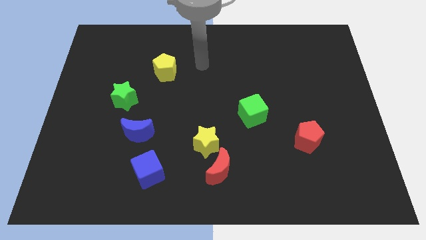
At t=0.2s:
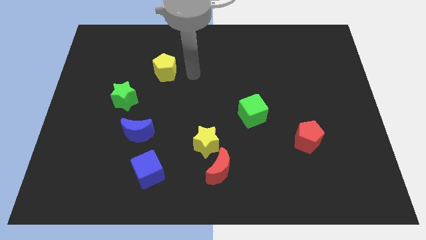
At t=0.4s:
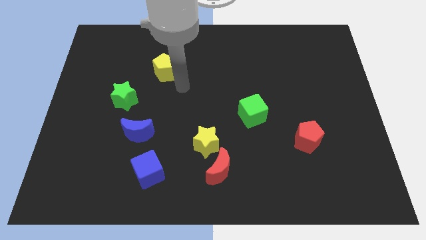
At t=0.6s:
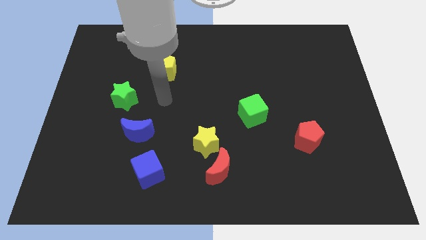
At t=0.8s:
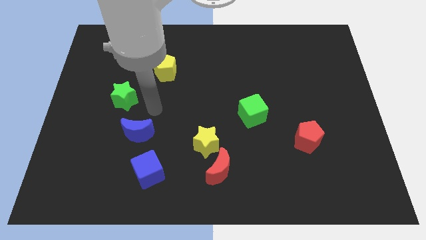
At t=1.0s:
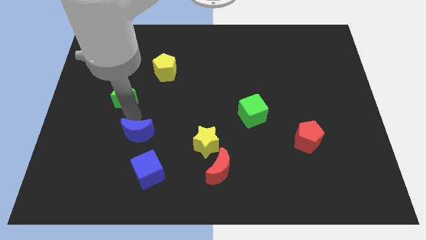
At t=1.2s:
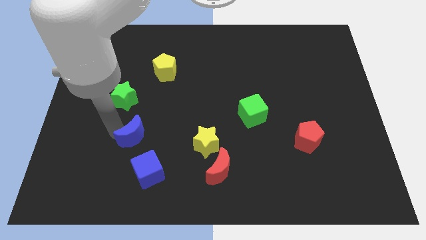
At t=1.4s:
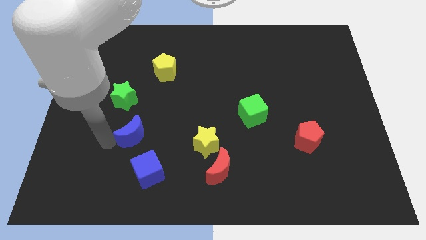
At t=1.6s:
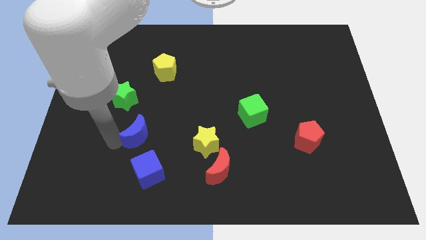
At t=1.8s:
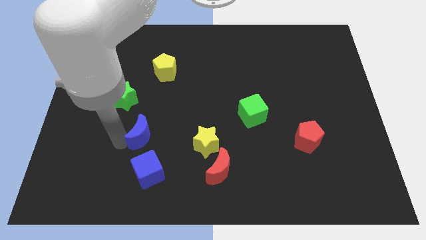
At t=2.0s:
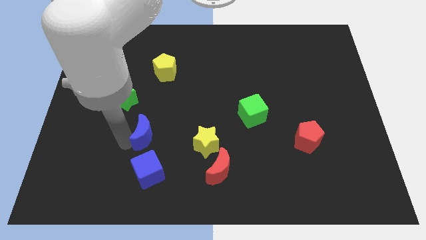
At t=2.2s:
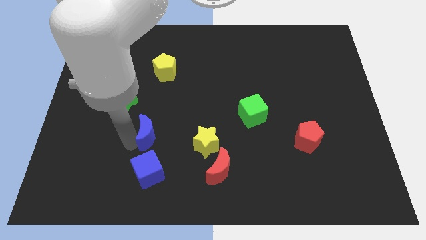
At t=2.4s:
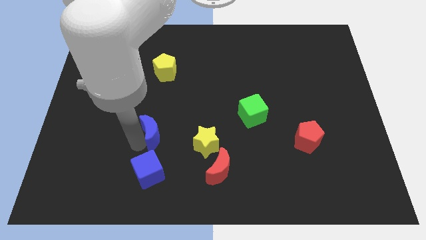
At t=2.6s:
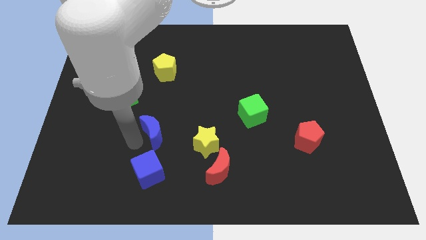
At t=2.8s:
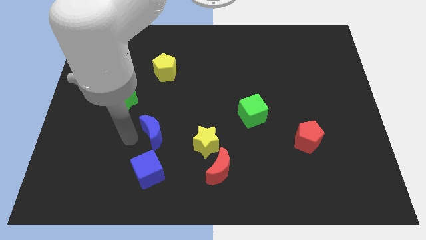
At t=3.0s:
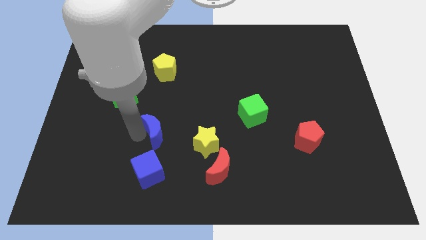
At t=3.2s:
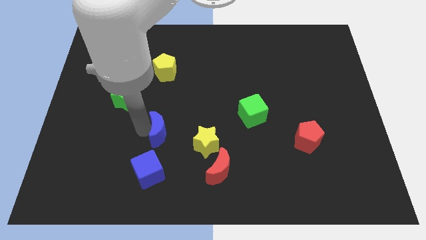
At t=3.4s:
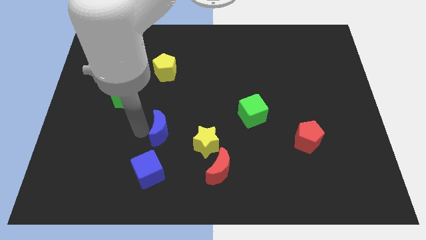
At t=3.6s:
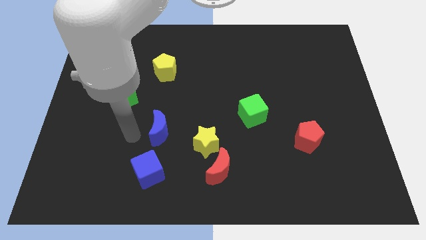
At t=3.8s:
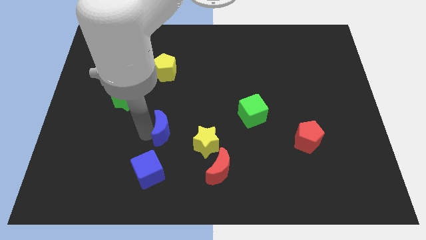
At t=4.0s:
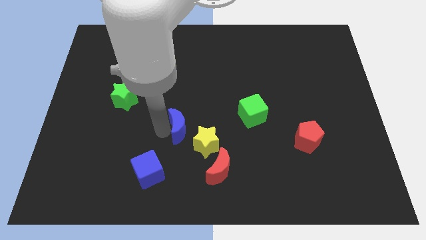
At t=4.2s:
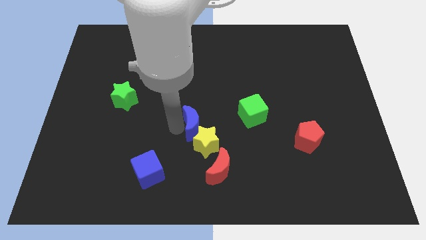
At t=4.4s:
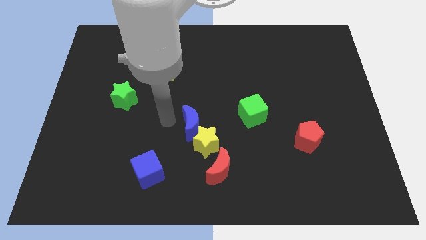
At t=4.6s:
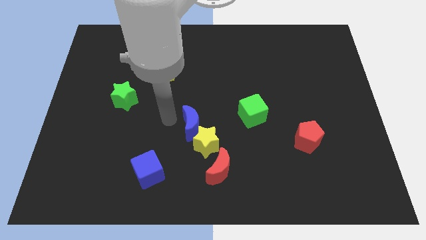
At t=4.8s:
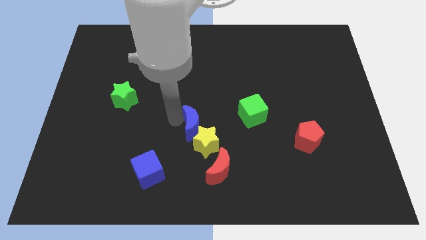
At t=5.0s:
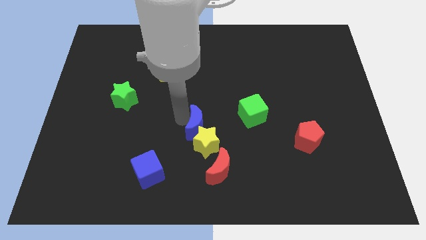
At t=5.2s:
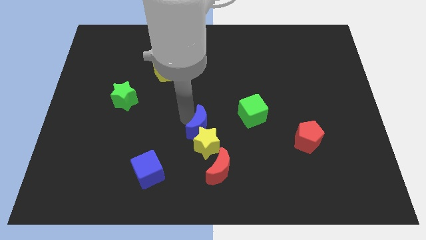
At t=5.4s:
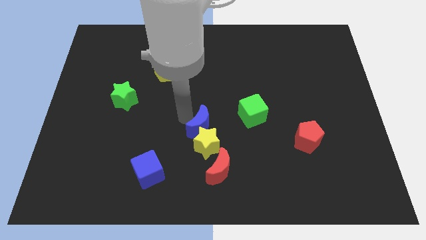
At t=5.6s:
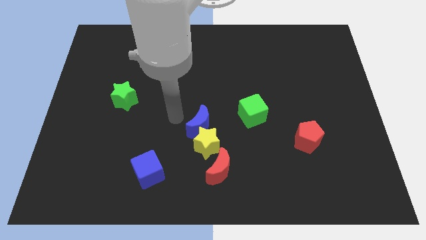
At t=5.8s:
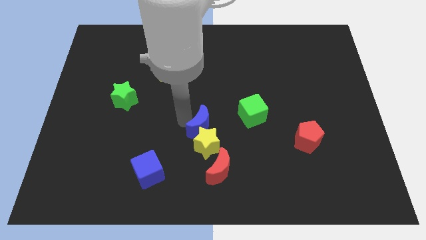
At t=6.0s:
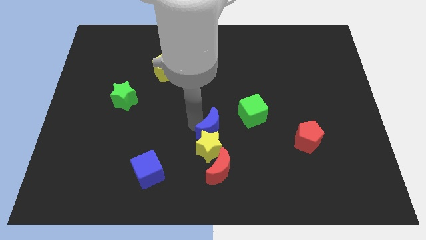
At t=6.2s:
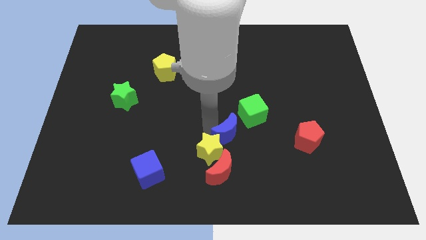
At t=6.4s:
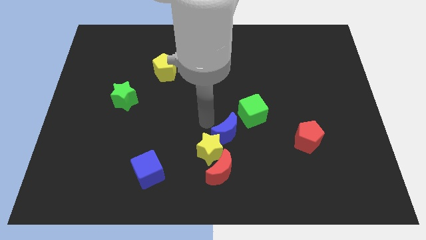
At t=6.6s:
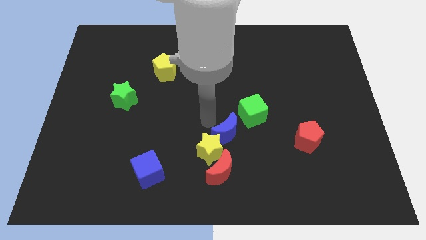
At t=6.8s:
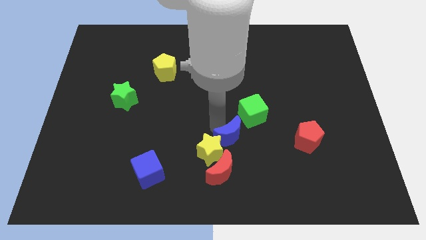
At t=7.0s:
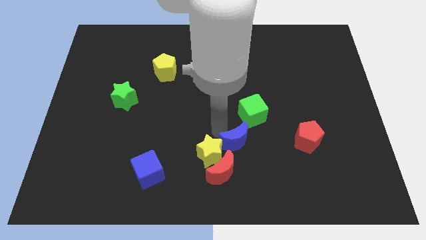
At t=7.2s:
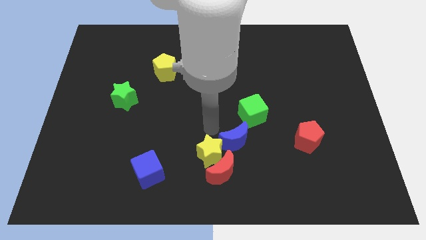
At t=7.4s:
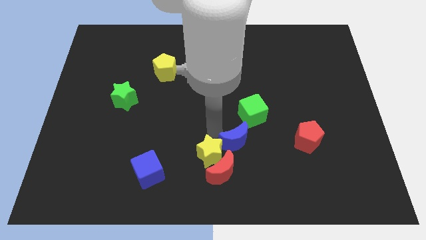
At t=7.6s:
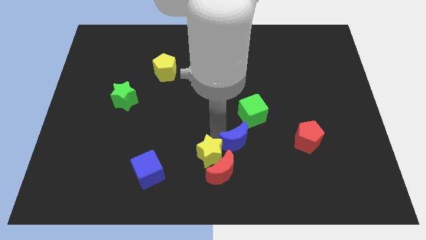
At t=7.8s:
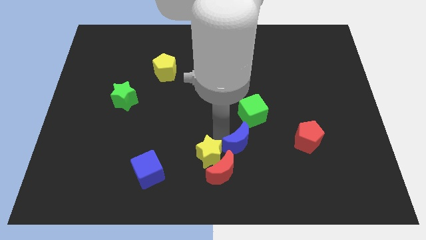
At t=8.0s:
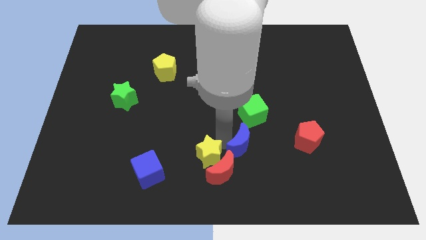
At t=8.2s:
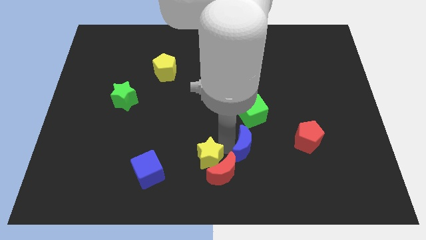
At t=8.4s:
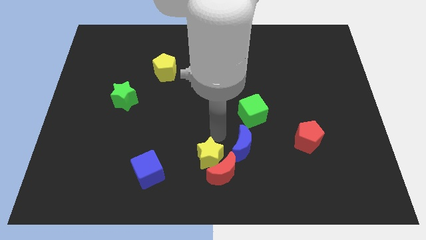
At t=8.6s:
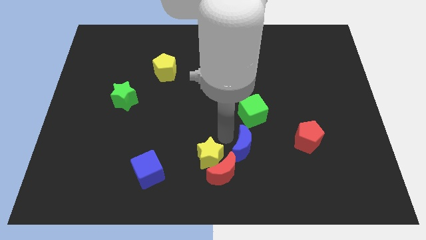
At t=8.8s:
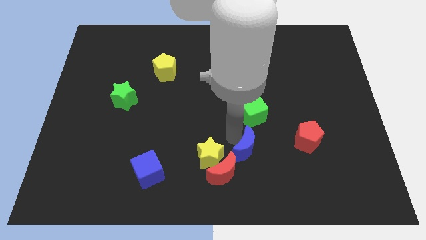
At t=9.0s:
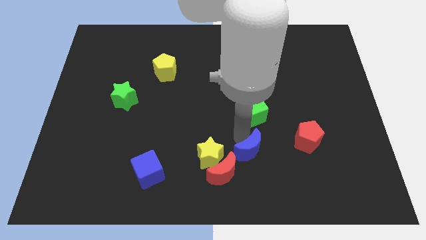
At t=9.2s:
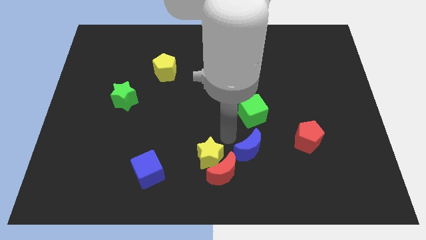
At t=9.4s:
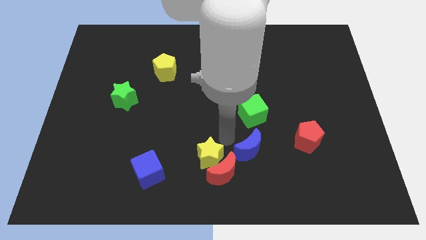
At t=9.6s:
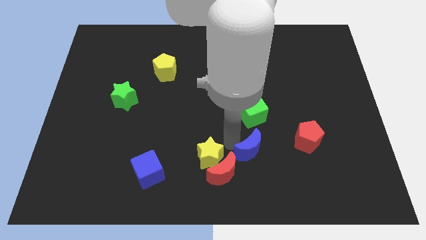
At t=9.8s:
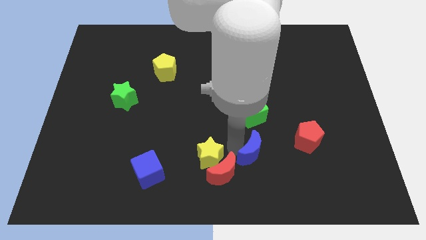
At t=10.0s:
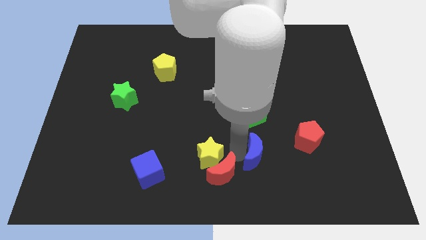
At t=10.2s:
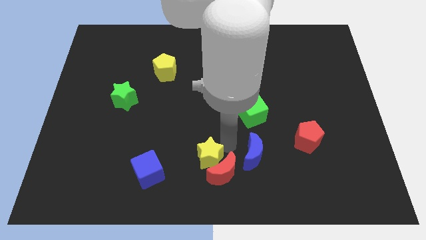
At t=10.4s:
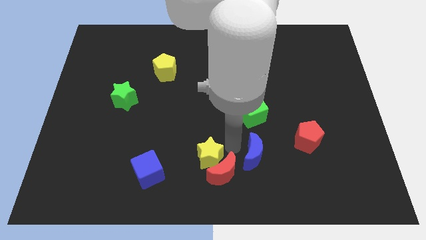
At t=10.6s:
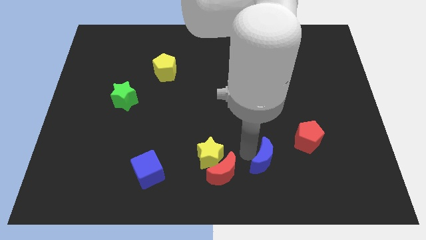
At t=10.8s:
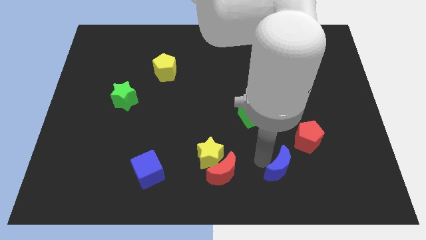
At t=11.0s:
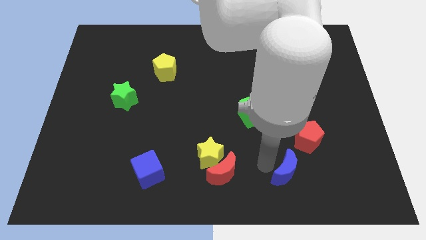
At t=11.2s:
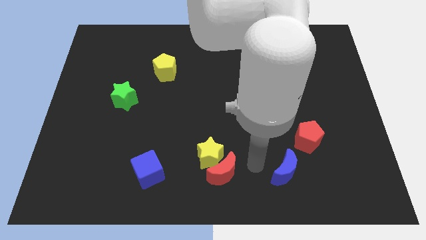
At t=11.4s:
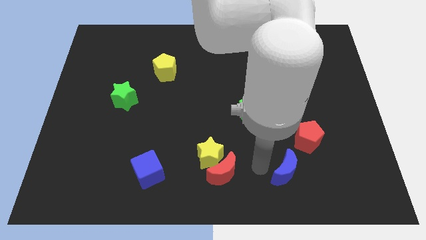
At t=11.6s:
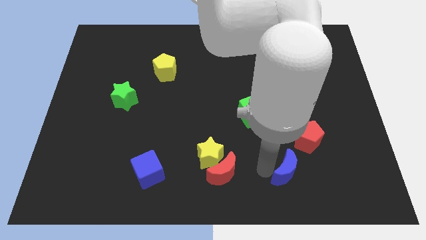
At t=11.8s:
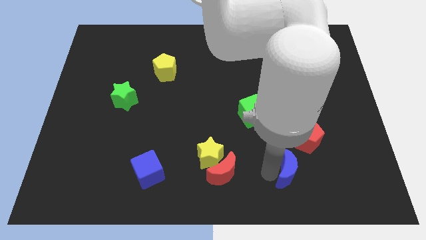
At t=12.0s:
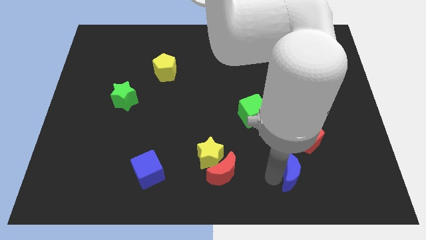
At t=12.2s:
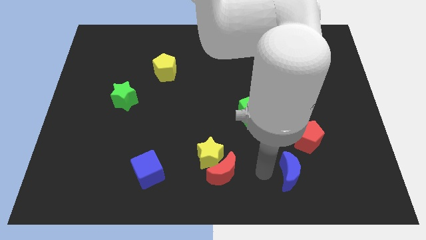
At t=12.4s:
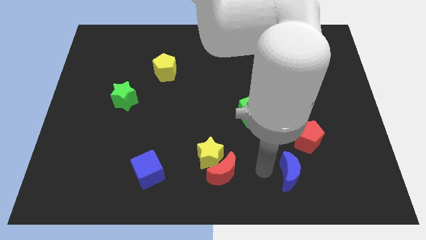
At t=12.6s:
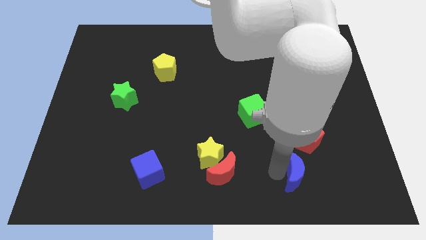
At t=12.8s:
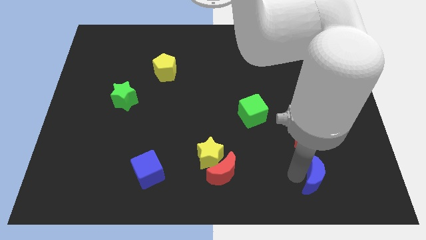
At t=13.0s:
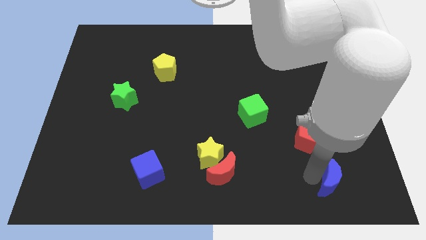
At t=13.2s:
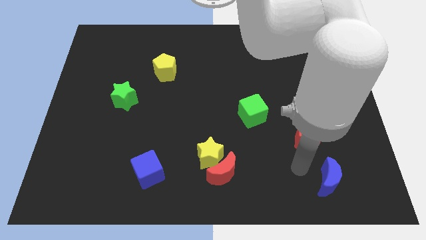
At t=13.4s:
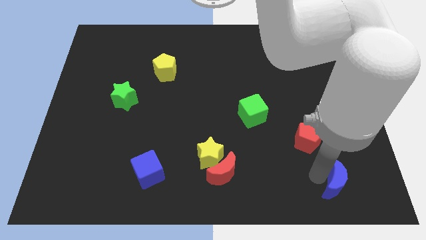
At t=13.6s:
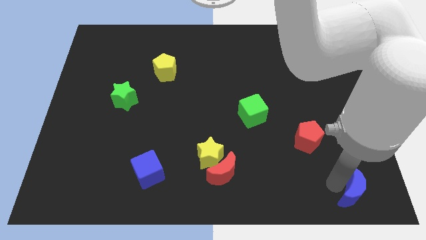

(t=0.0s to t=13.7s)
move the blue moon to the bottom right corner

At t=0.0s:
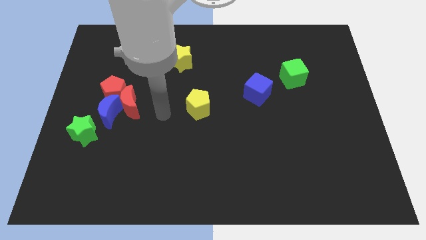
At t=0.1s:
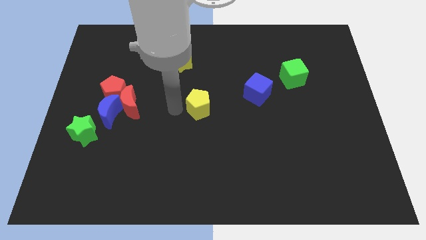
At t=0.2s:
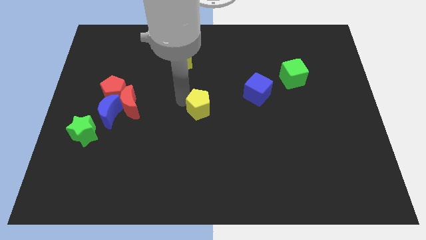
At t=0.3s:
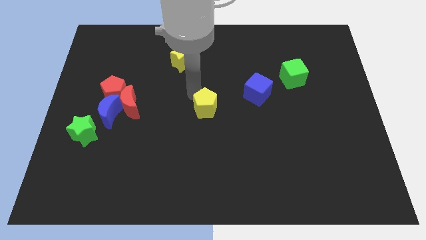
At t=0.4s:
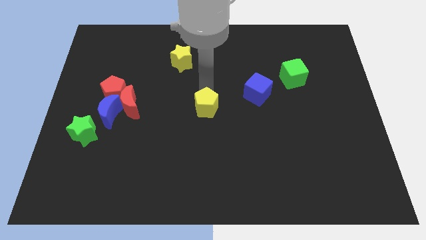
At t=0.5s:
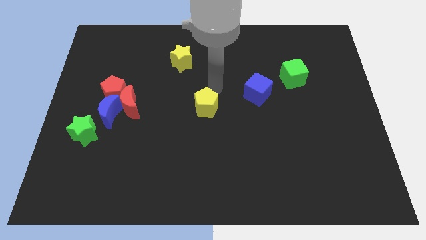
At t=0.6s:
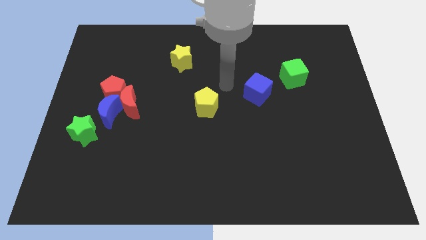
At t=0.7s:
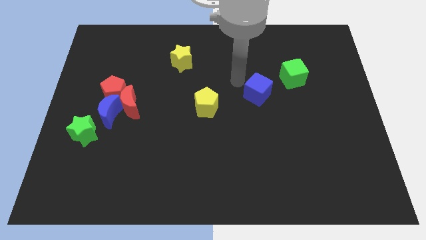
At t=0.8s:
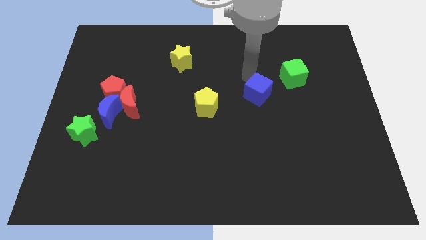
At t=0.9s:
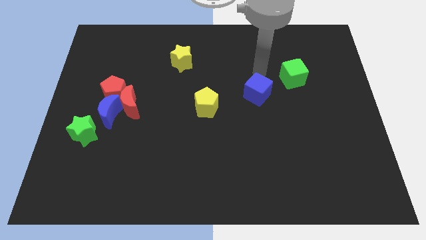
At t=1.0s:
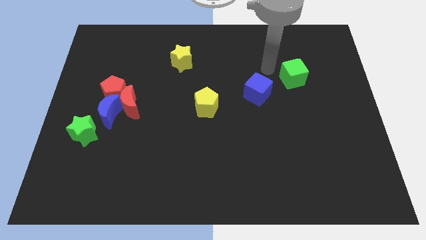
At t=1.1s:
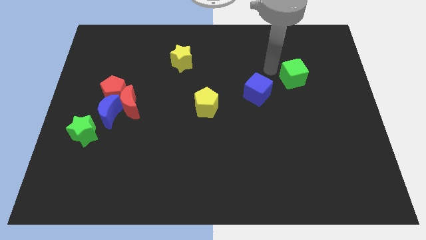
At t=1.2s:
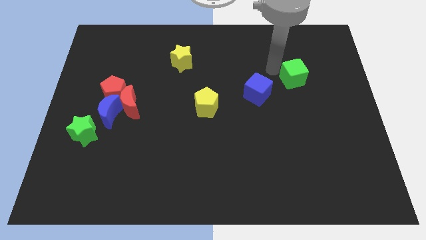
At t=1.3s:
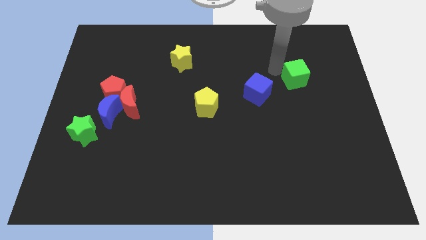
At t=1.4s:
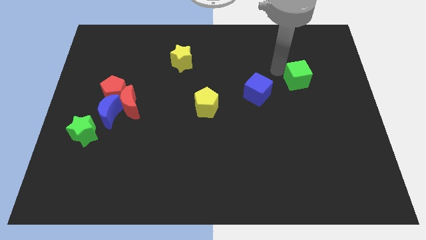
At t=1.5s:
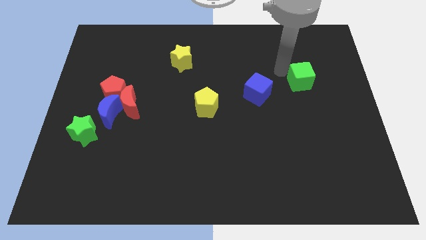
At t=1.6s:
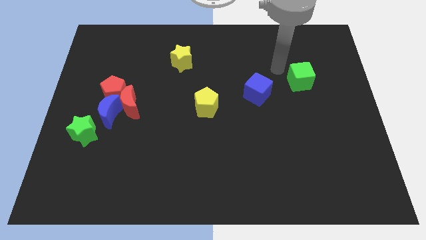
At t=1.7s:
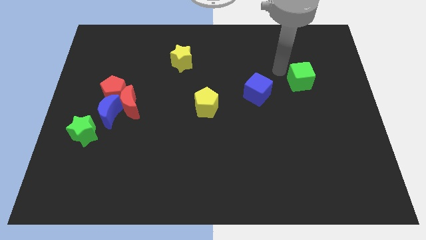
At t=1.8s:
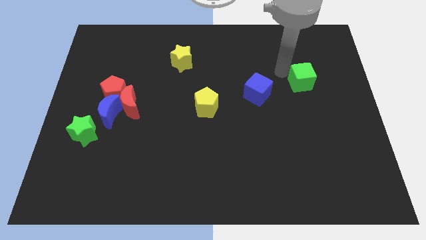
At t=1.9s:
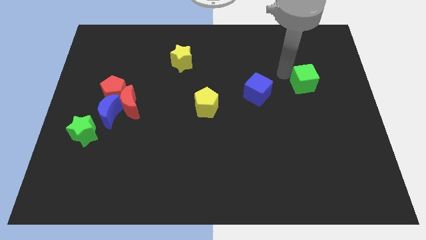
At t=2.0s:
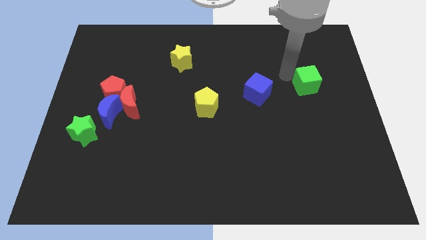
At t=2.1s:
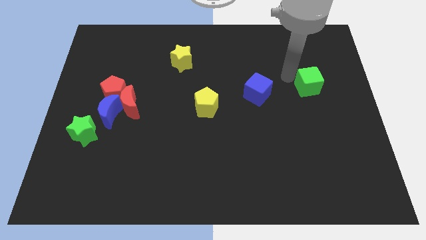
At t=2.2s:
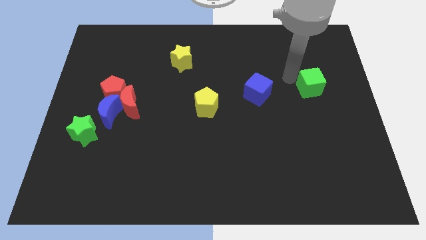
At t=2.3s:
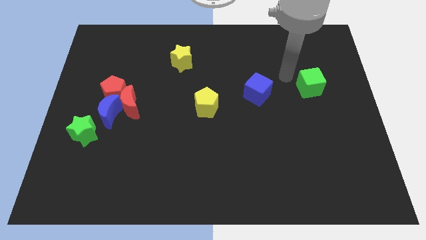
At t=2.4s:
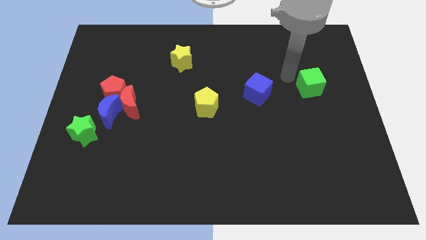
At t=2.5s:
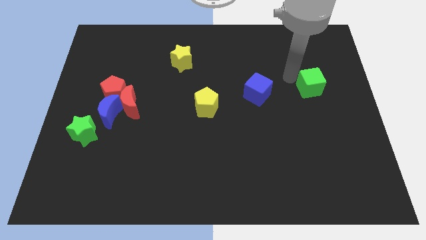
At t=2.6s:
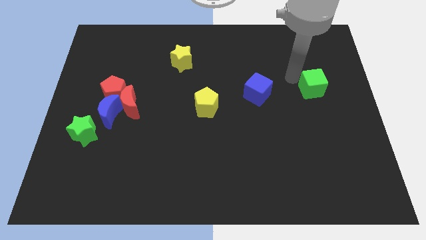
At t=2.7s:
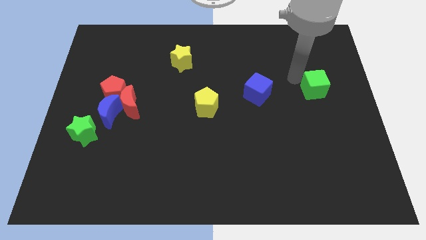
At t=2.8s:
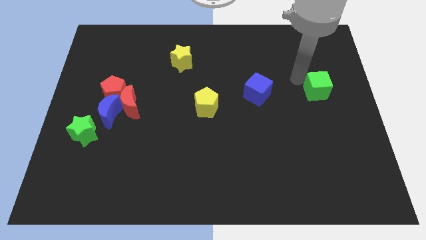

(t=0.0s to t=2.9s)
slide the green cube to the right side
